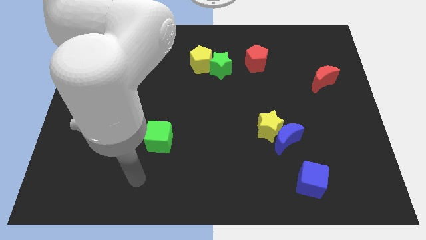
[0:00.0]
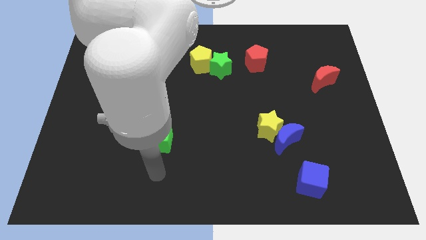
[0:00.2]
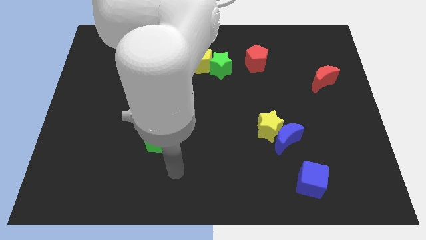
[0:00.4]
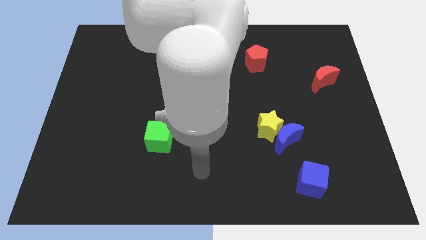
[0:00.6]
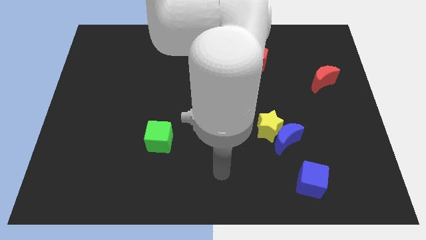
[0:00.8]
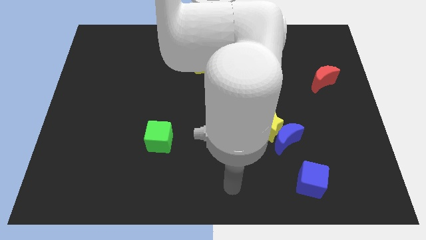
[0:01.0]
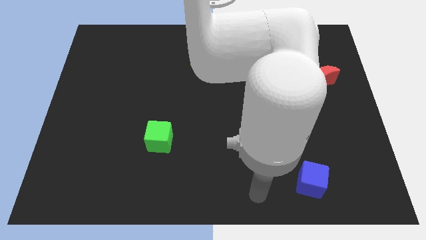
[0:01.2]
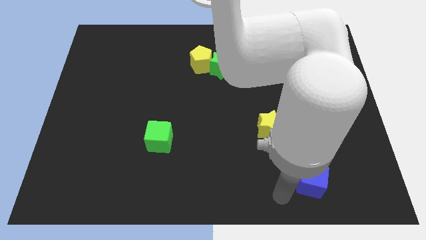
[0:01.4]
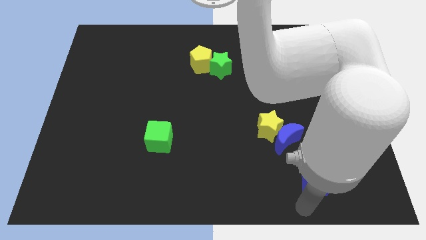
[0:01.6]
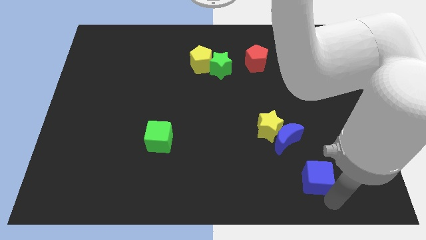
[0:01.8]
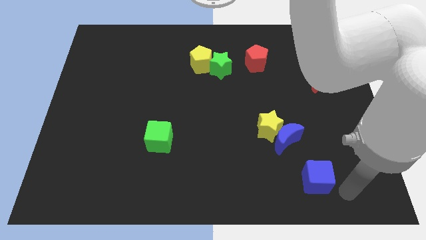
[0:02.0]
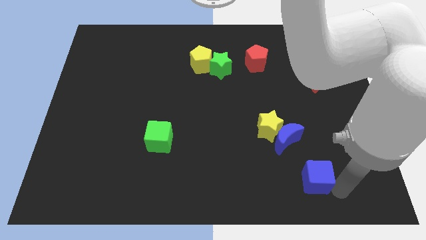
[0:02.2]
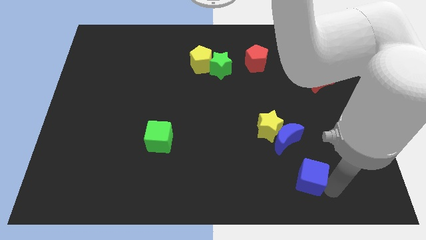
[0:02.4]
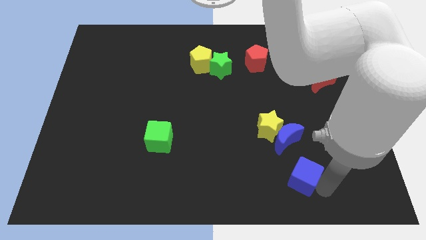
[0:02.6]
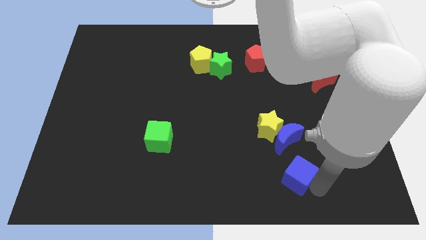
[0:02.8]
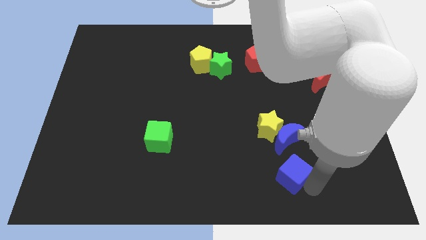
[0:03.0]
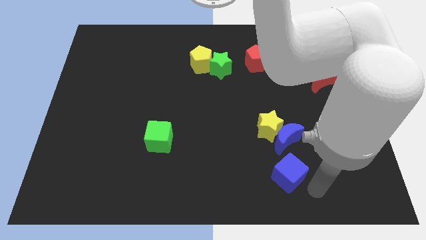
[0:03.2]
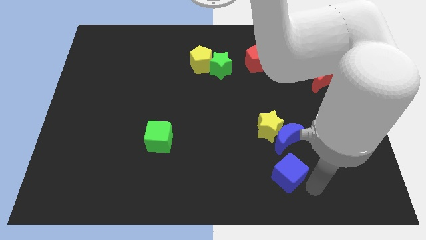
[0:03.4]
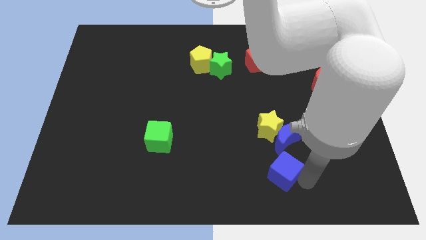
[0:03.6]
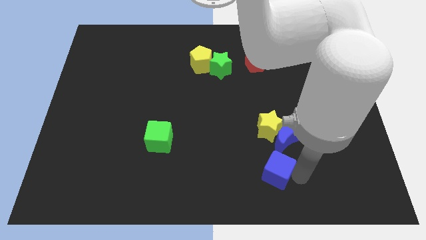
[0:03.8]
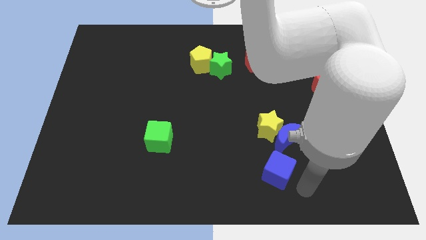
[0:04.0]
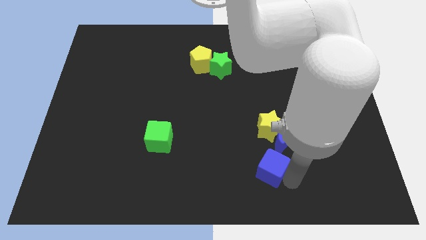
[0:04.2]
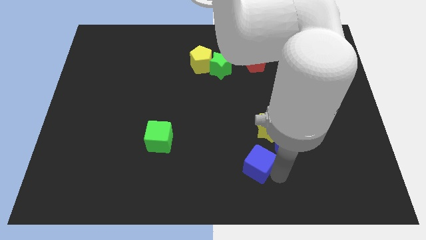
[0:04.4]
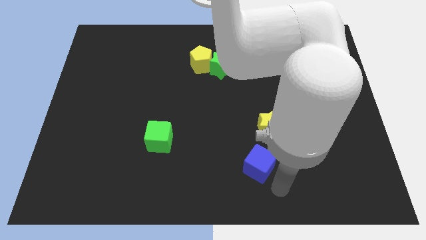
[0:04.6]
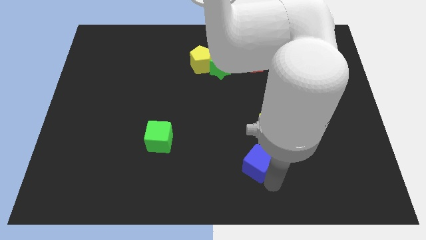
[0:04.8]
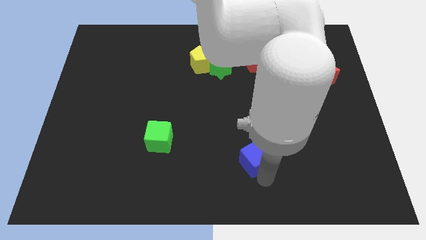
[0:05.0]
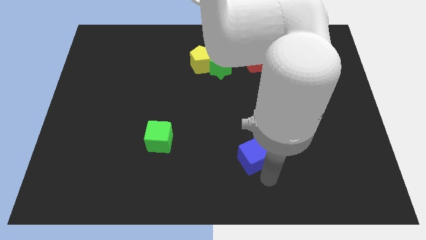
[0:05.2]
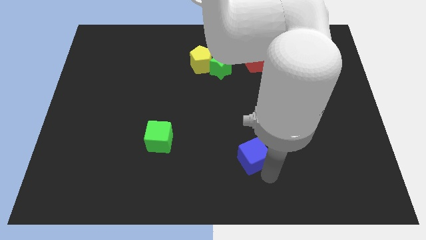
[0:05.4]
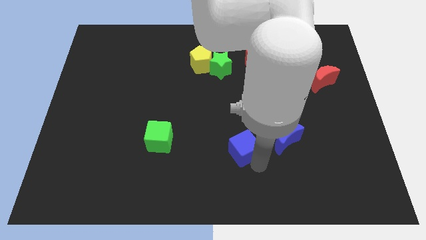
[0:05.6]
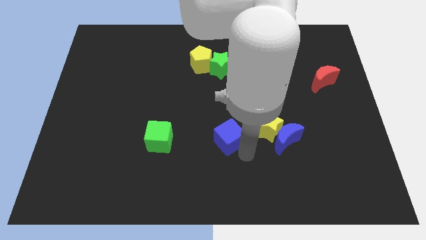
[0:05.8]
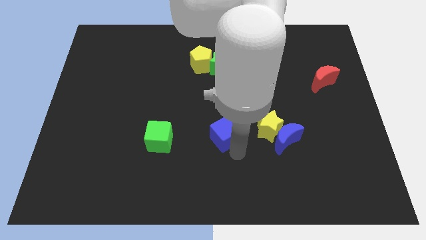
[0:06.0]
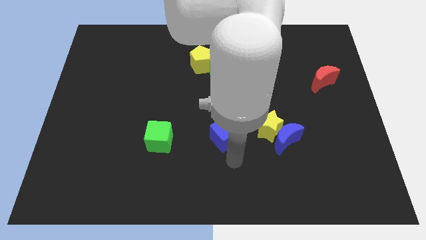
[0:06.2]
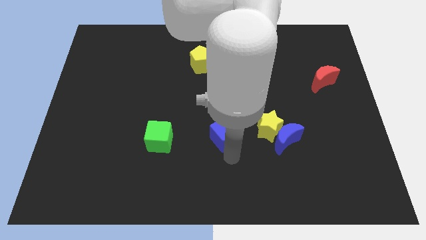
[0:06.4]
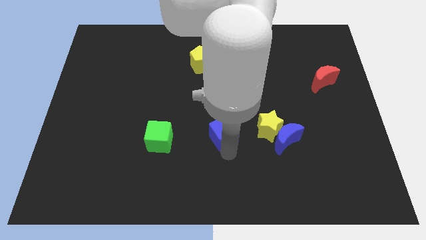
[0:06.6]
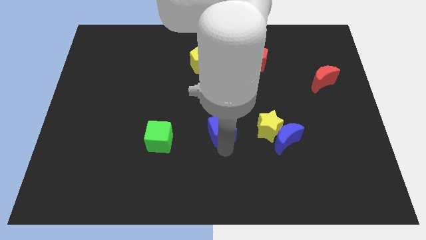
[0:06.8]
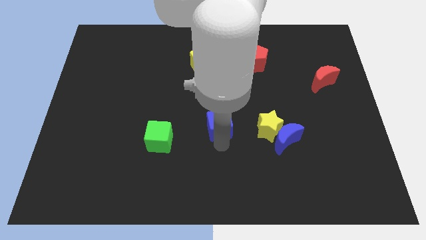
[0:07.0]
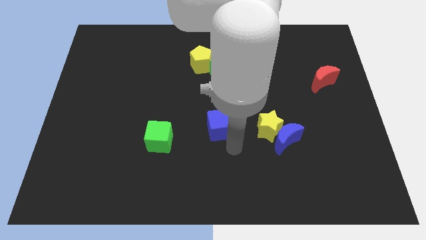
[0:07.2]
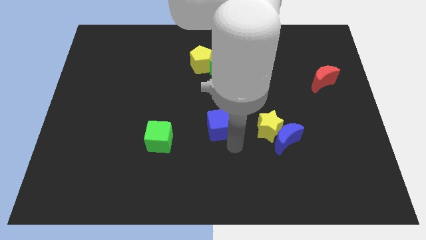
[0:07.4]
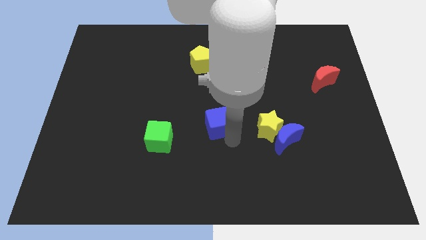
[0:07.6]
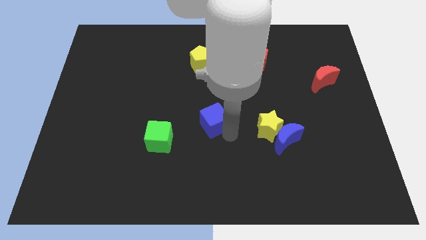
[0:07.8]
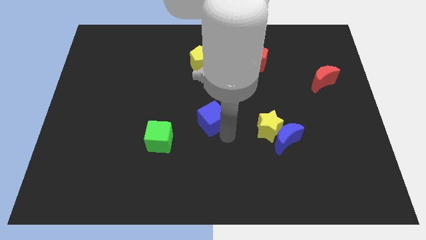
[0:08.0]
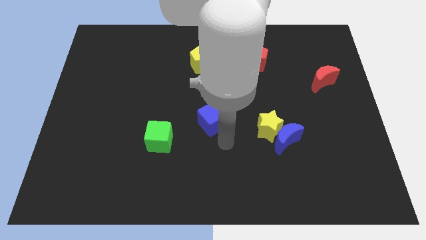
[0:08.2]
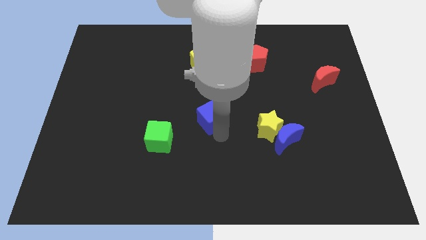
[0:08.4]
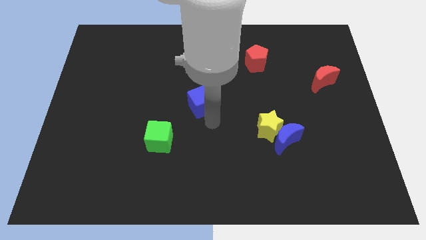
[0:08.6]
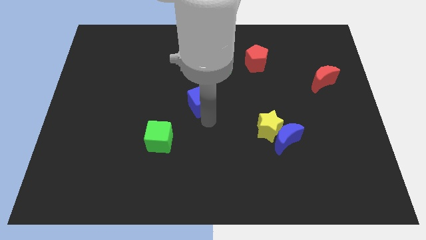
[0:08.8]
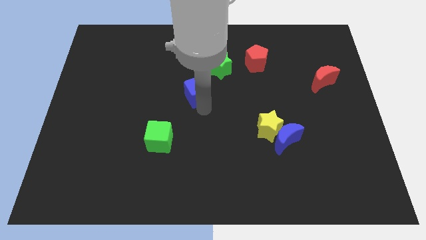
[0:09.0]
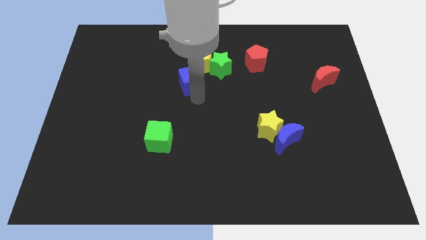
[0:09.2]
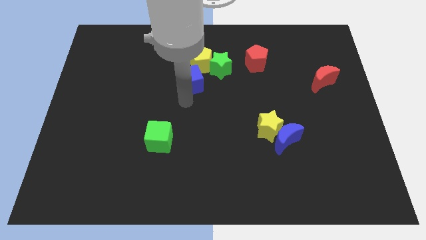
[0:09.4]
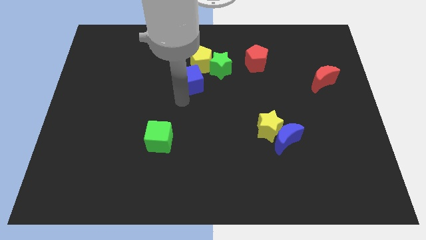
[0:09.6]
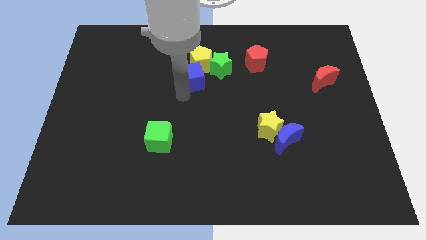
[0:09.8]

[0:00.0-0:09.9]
push the blue cube to the yellow pentagon

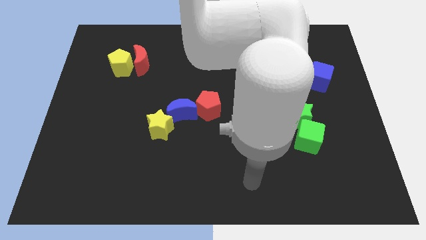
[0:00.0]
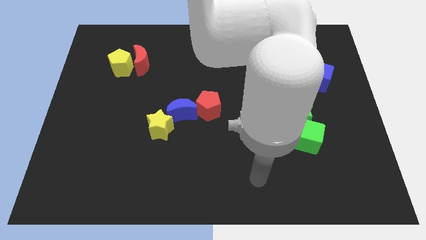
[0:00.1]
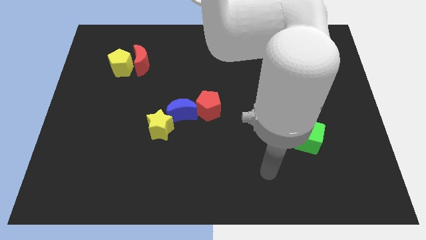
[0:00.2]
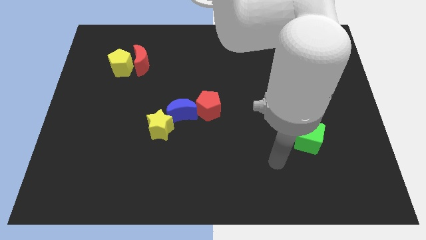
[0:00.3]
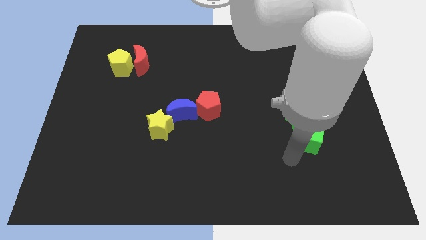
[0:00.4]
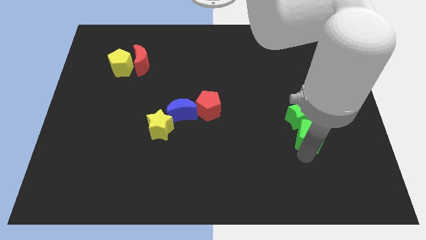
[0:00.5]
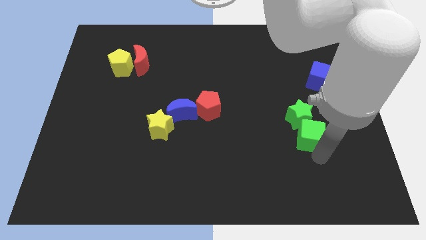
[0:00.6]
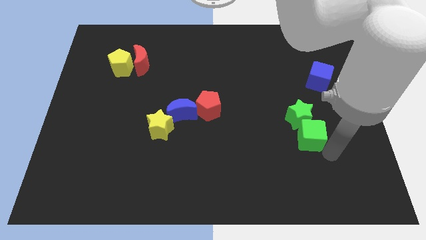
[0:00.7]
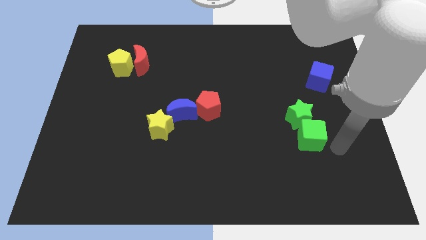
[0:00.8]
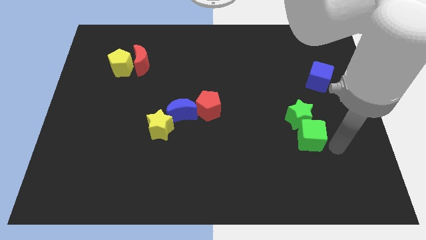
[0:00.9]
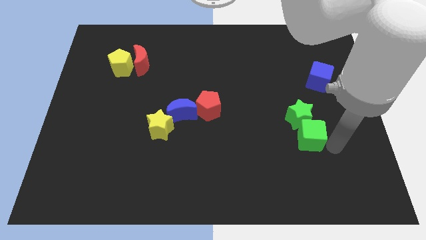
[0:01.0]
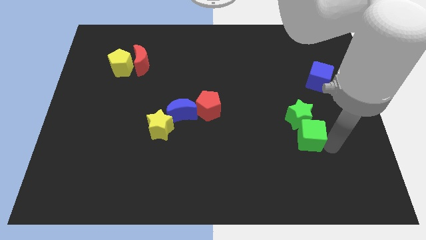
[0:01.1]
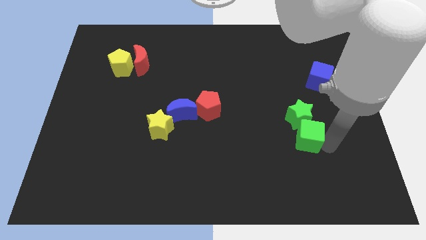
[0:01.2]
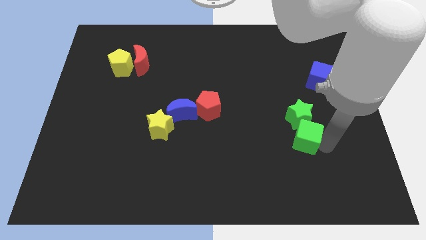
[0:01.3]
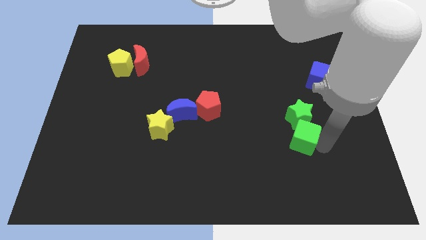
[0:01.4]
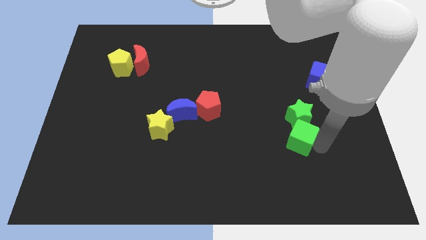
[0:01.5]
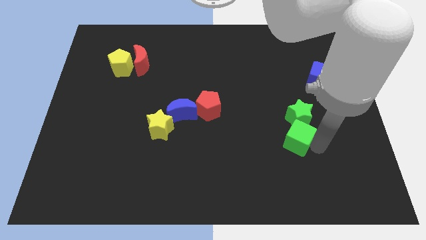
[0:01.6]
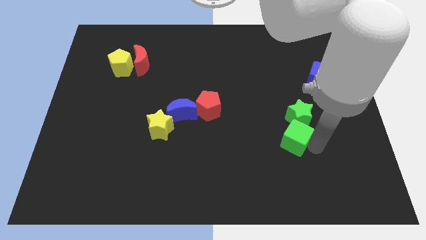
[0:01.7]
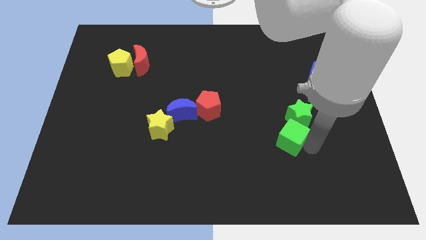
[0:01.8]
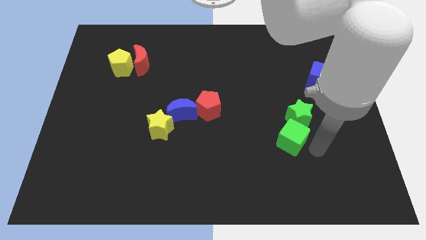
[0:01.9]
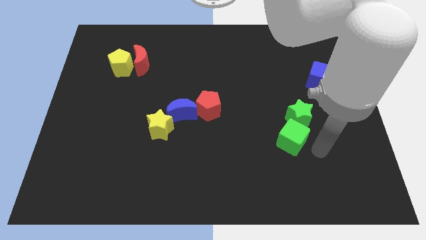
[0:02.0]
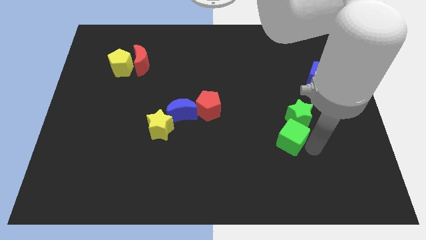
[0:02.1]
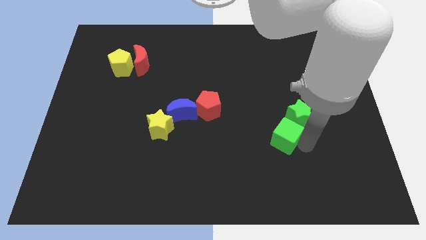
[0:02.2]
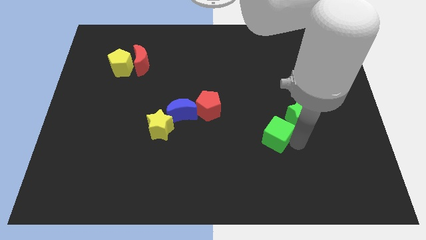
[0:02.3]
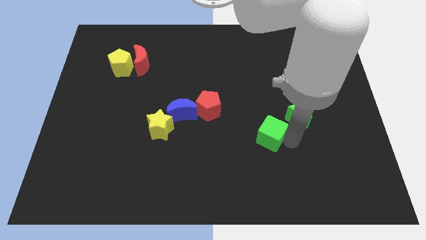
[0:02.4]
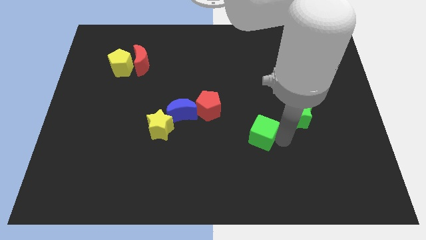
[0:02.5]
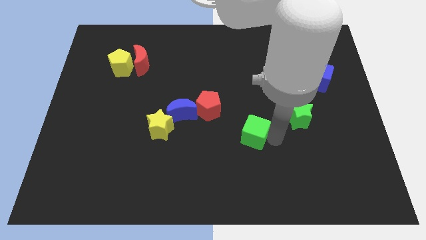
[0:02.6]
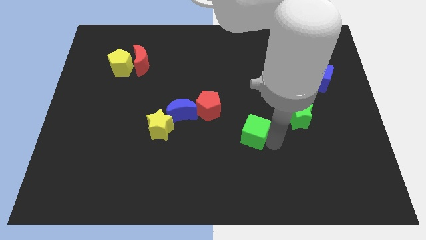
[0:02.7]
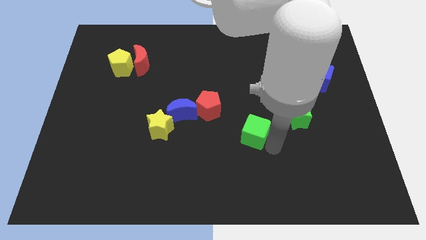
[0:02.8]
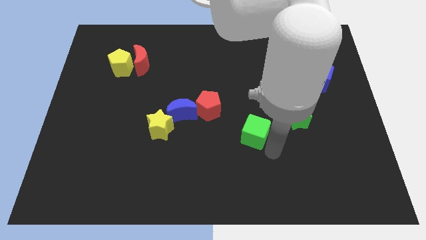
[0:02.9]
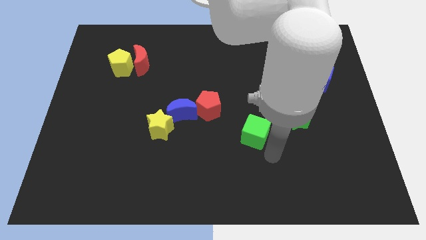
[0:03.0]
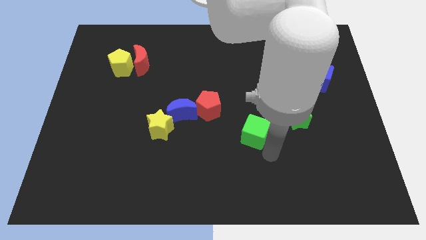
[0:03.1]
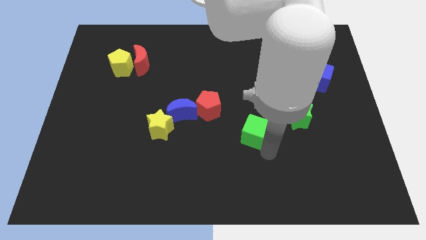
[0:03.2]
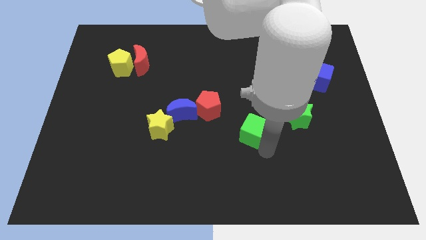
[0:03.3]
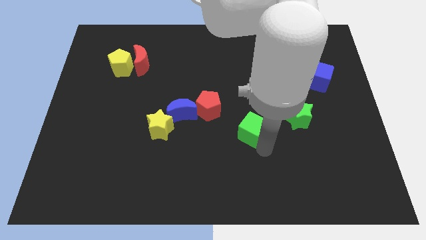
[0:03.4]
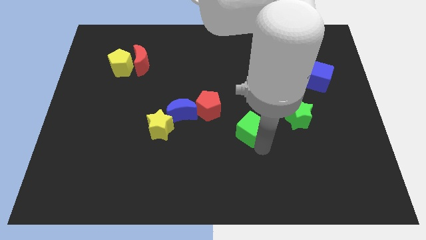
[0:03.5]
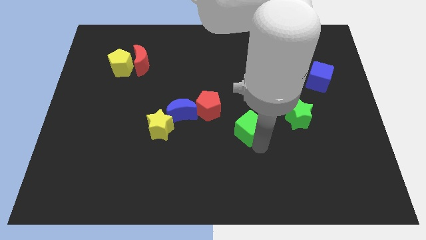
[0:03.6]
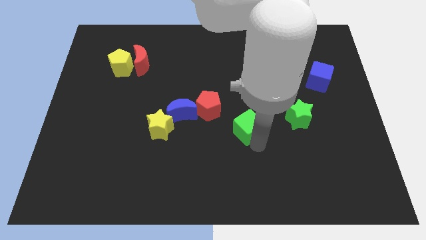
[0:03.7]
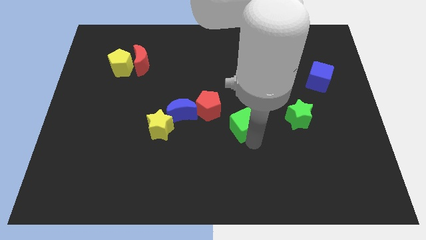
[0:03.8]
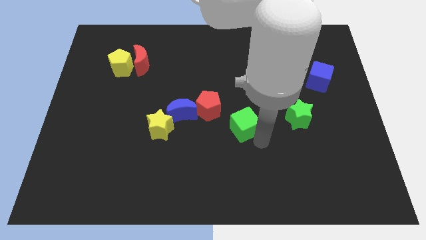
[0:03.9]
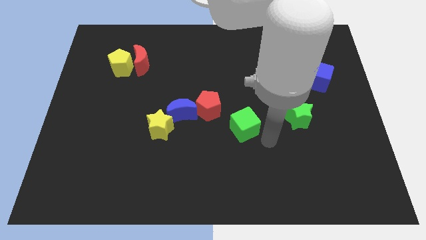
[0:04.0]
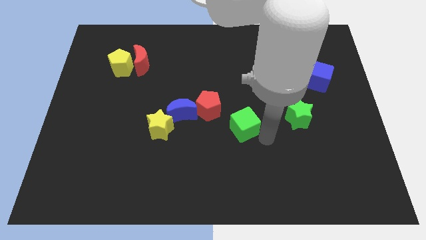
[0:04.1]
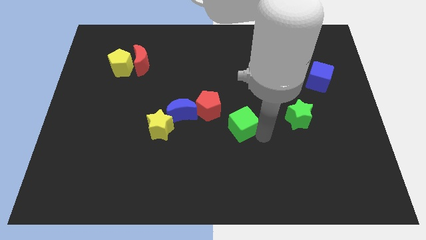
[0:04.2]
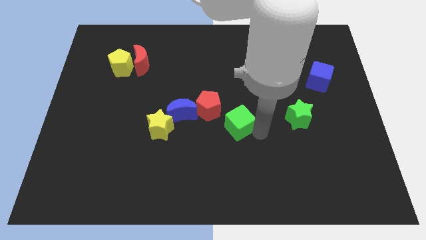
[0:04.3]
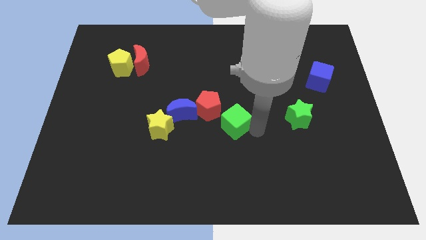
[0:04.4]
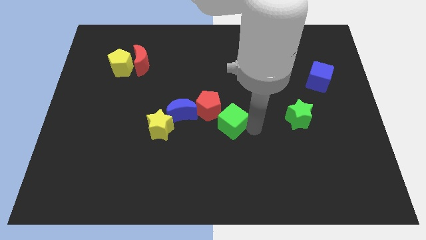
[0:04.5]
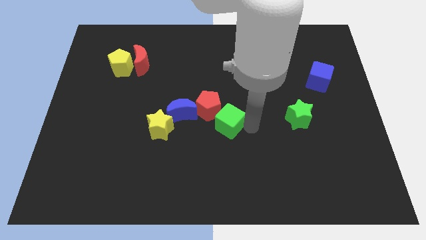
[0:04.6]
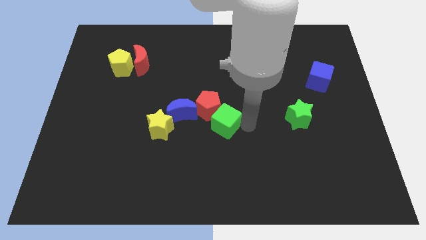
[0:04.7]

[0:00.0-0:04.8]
put the green cube towards the red pentagon
